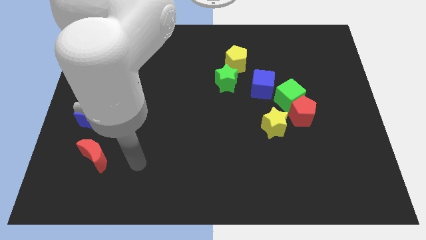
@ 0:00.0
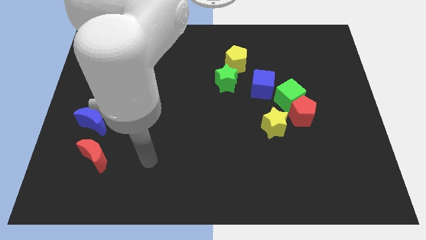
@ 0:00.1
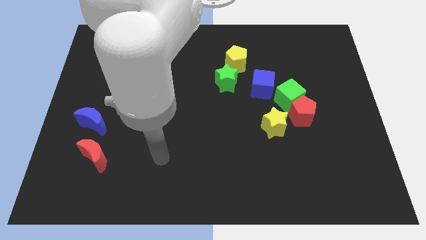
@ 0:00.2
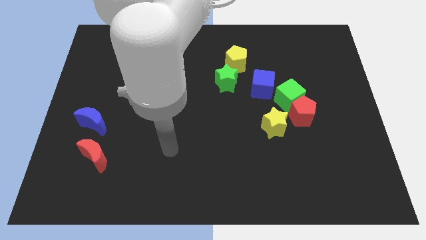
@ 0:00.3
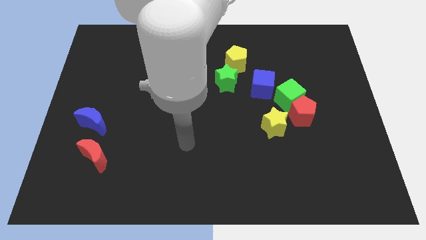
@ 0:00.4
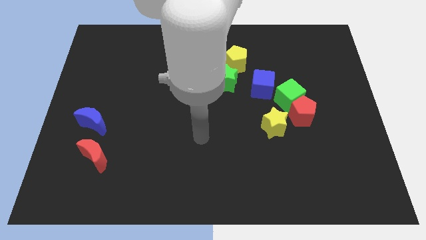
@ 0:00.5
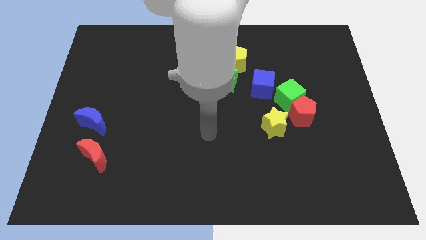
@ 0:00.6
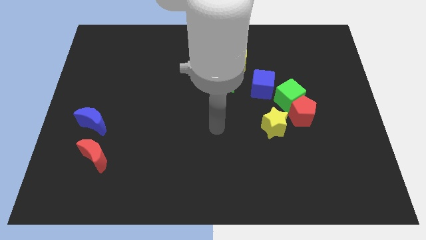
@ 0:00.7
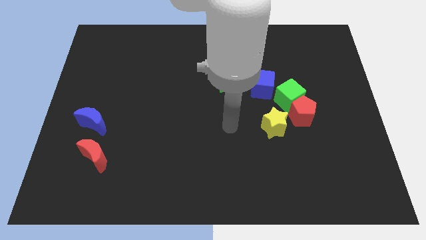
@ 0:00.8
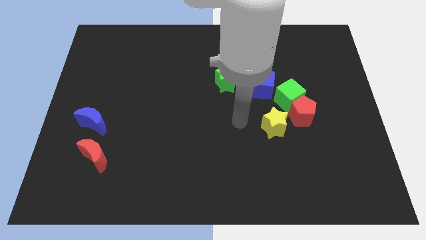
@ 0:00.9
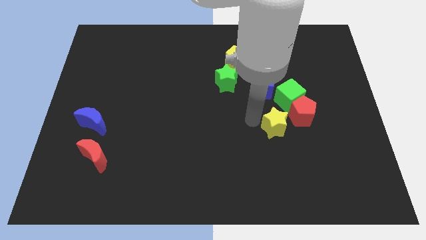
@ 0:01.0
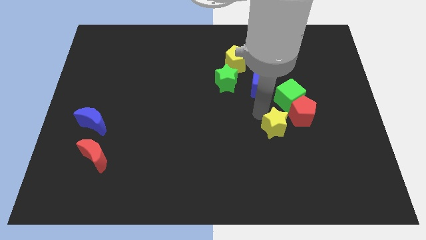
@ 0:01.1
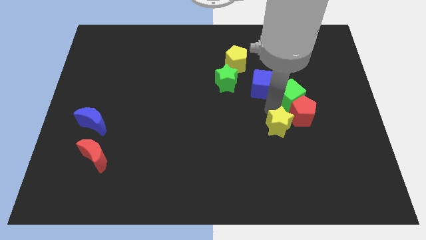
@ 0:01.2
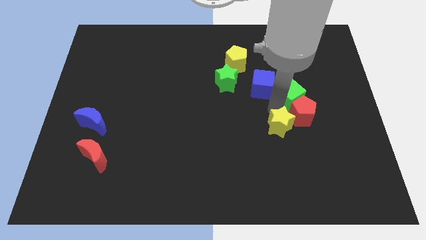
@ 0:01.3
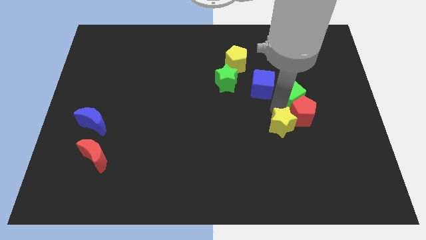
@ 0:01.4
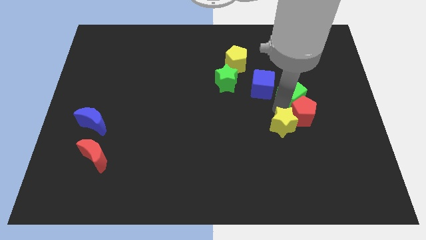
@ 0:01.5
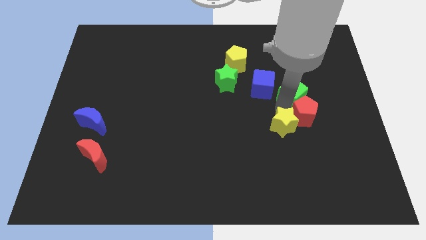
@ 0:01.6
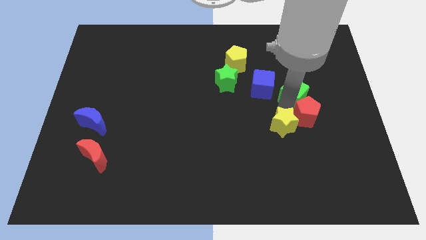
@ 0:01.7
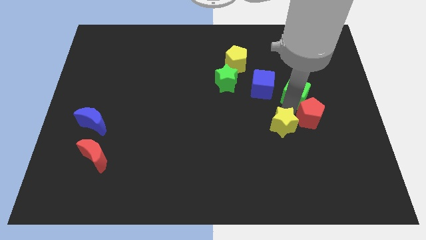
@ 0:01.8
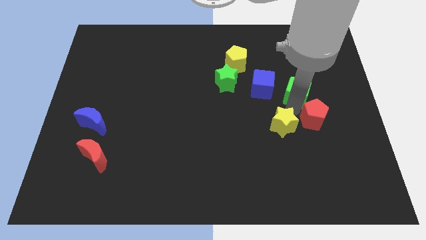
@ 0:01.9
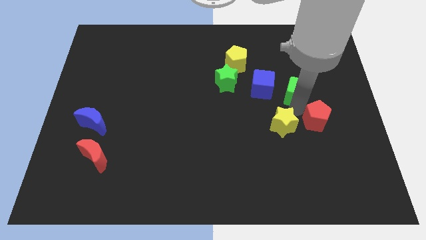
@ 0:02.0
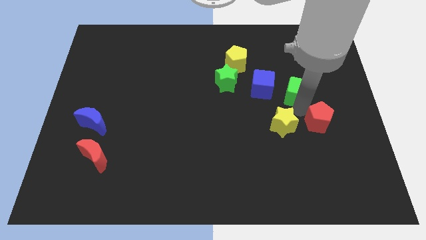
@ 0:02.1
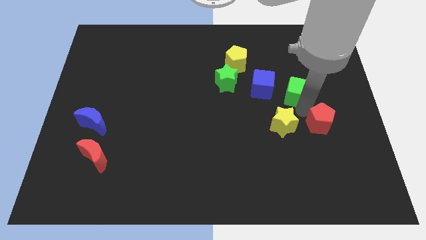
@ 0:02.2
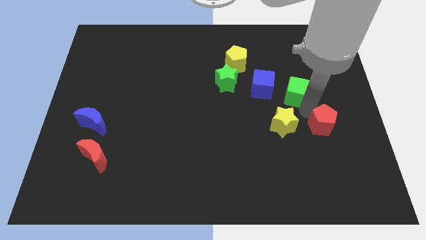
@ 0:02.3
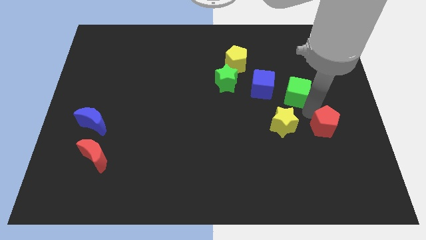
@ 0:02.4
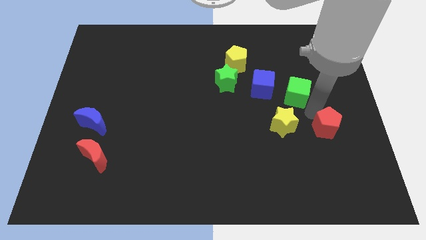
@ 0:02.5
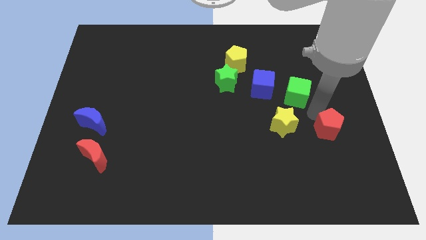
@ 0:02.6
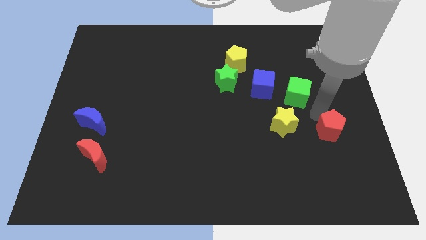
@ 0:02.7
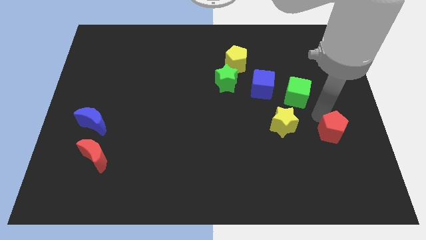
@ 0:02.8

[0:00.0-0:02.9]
separate the red pentagon from the green cube and yellow star

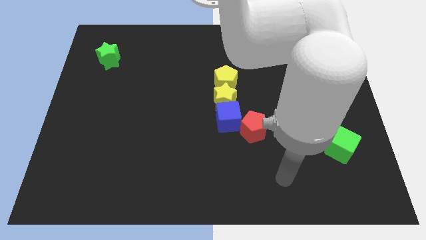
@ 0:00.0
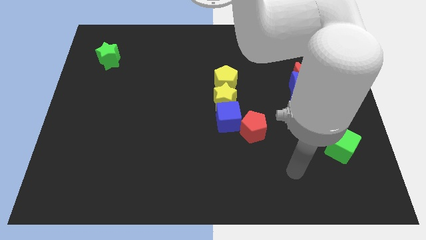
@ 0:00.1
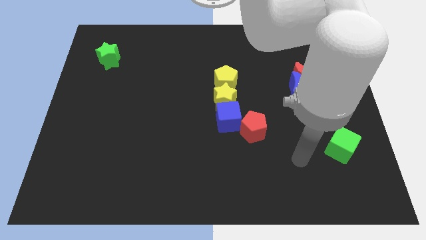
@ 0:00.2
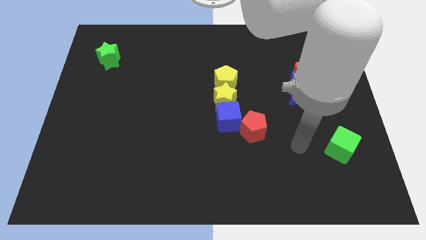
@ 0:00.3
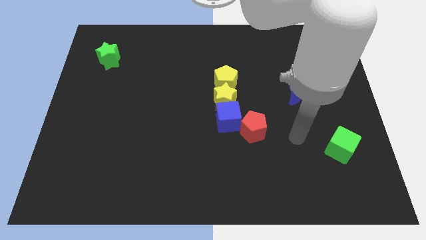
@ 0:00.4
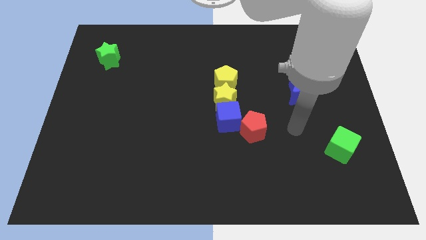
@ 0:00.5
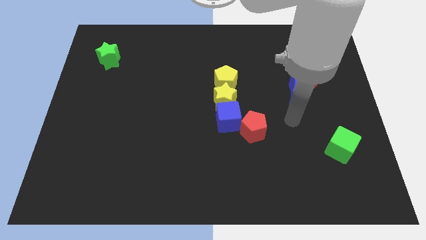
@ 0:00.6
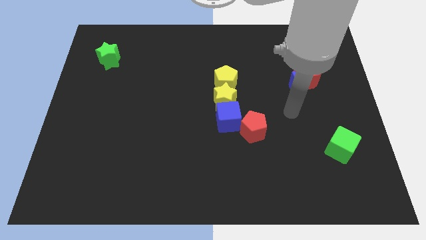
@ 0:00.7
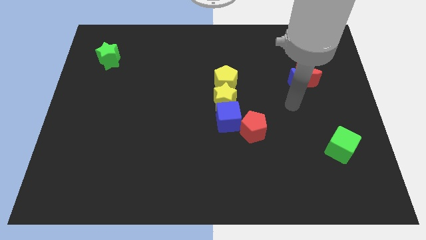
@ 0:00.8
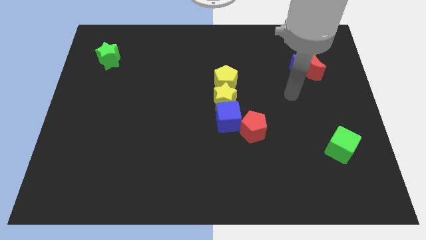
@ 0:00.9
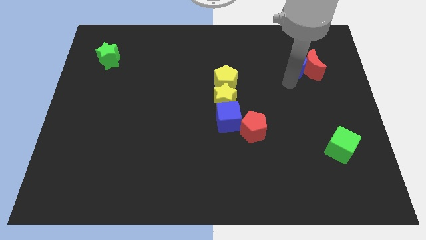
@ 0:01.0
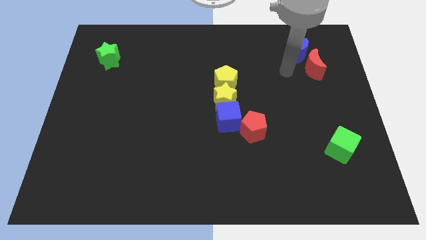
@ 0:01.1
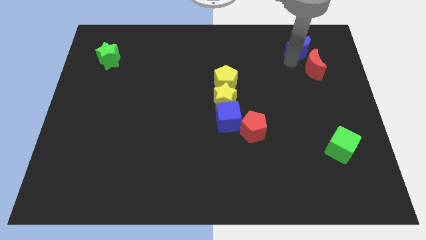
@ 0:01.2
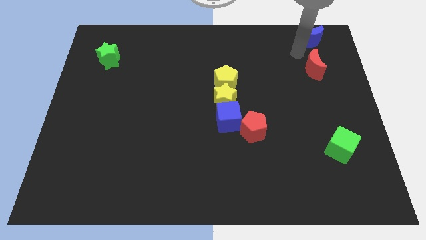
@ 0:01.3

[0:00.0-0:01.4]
move the red moon away from the blue moon

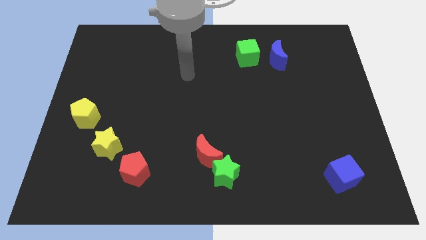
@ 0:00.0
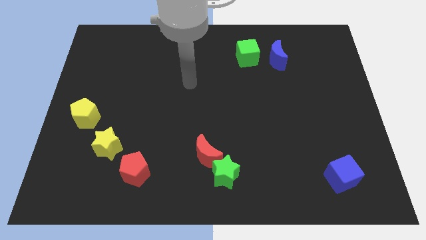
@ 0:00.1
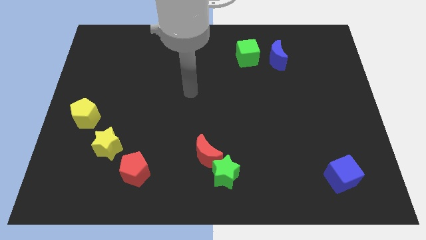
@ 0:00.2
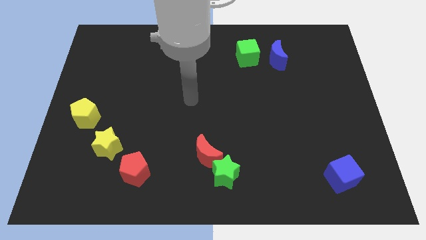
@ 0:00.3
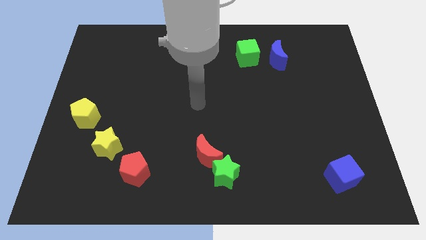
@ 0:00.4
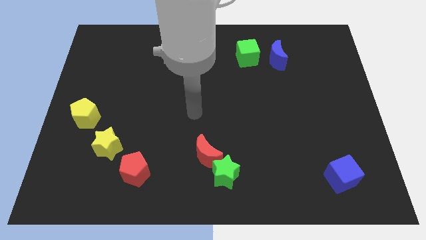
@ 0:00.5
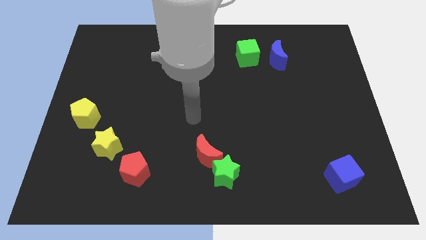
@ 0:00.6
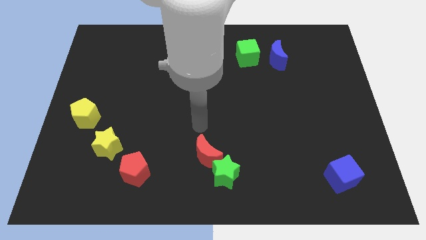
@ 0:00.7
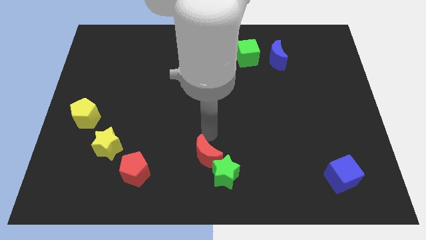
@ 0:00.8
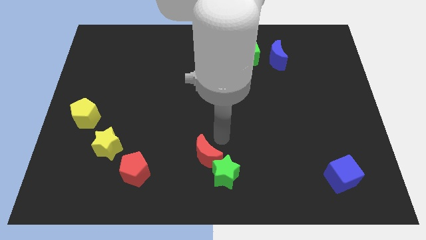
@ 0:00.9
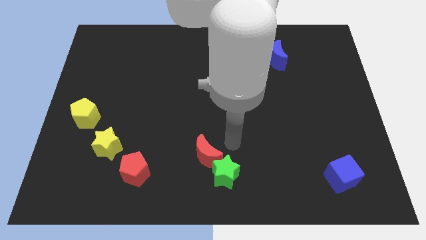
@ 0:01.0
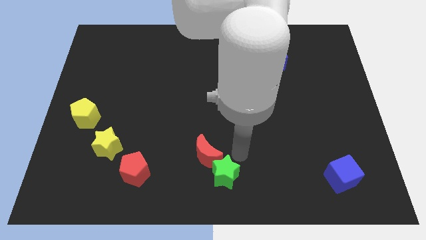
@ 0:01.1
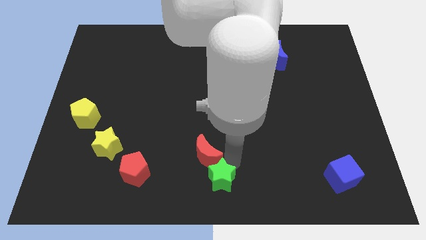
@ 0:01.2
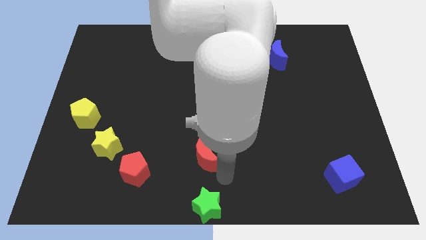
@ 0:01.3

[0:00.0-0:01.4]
separate the red moon from the green star

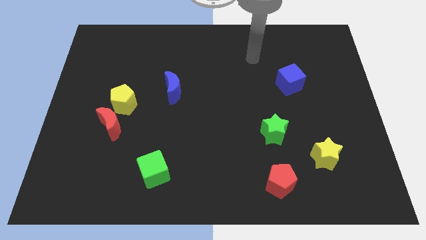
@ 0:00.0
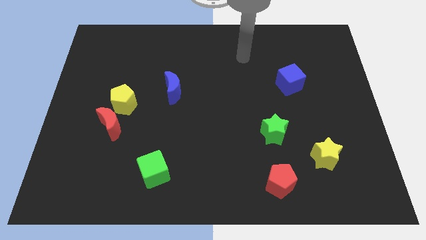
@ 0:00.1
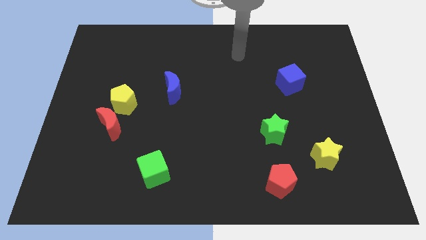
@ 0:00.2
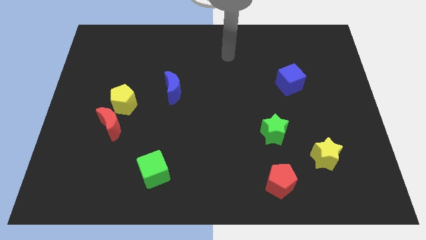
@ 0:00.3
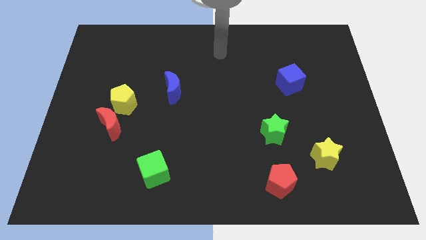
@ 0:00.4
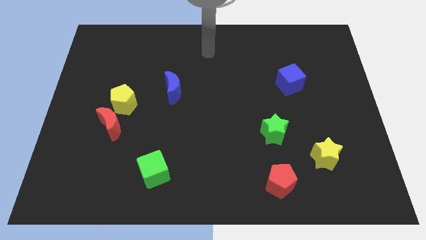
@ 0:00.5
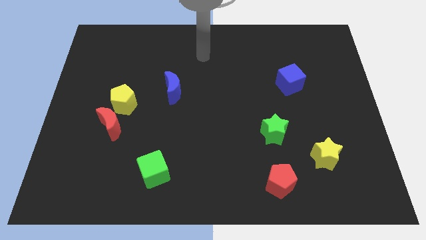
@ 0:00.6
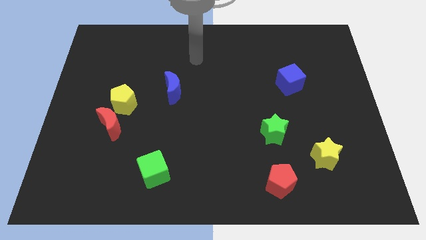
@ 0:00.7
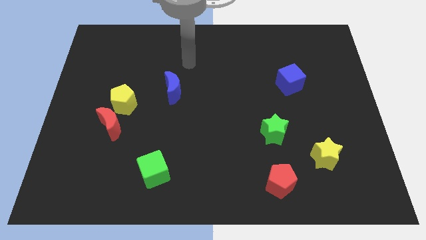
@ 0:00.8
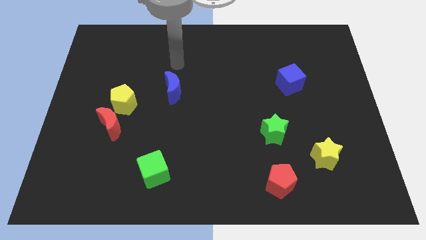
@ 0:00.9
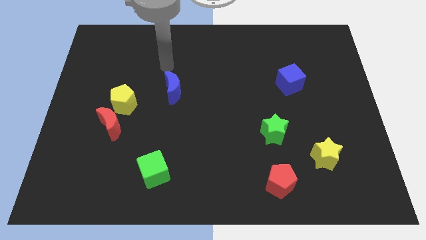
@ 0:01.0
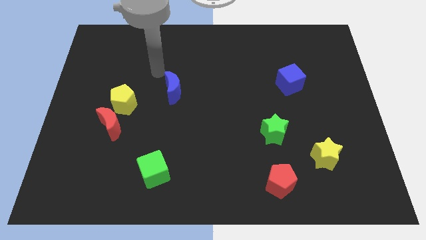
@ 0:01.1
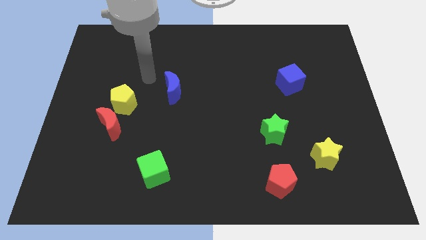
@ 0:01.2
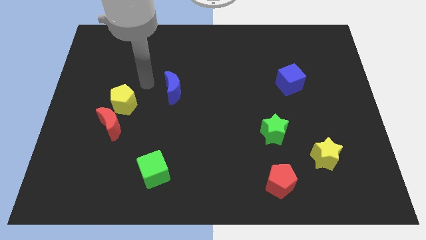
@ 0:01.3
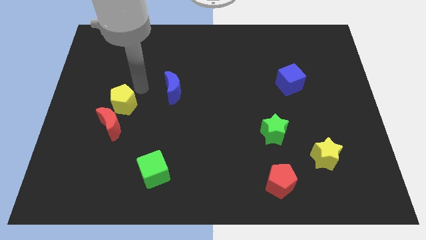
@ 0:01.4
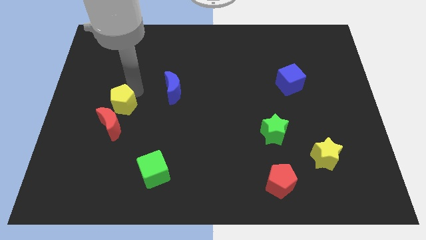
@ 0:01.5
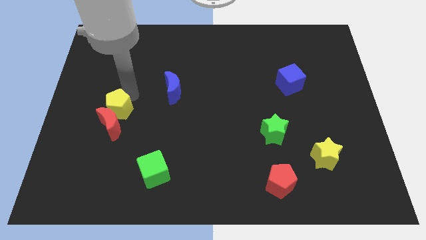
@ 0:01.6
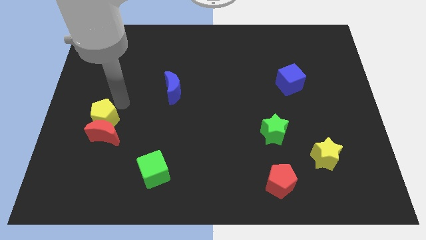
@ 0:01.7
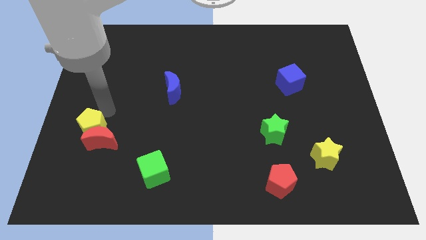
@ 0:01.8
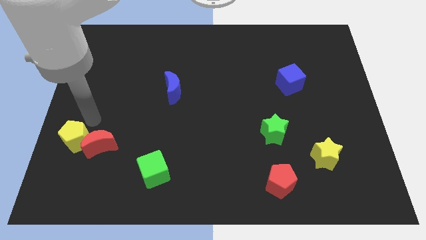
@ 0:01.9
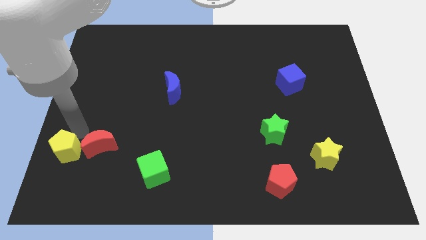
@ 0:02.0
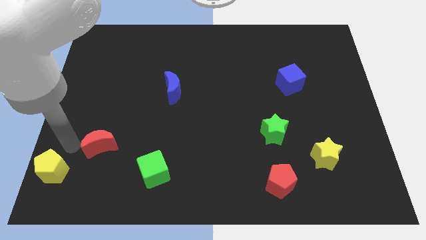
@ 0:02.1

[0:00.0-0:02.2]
pull the red moon apart from the yellow pentagon

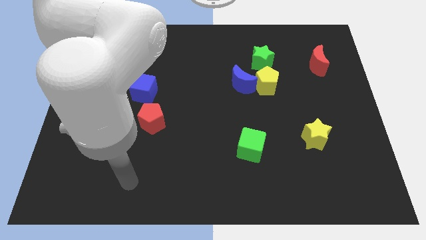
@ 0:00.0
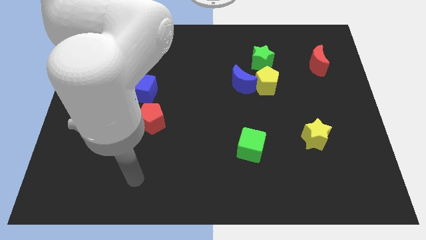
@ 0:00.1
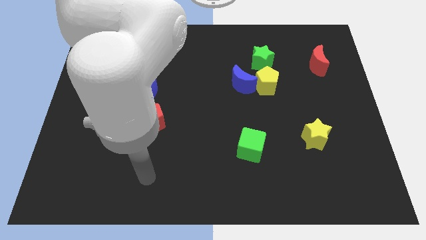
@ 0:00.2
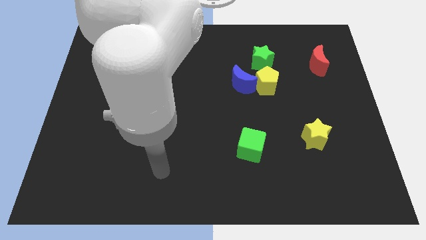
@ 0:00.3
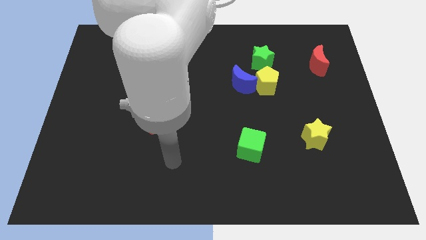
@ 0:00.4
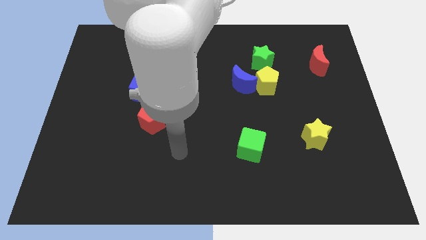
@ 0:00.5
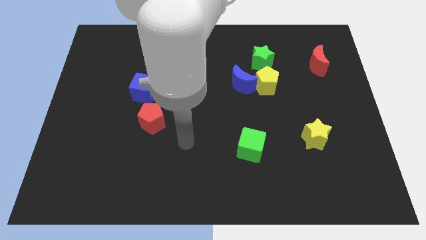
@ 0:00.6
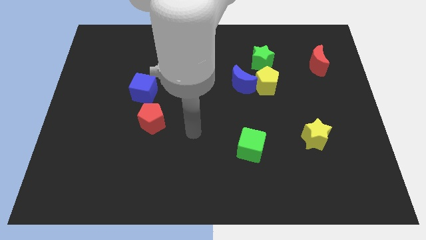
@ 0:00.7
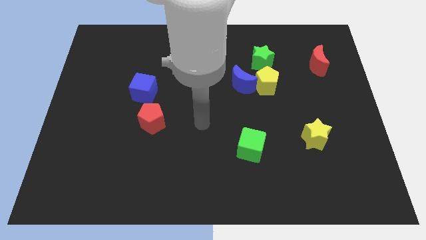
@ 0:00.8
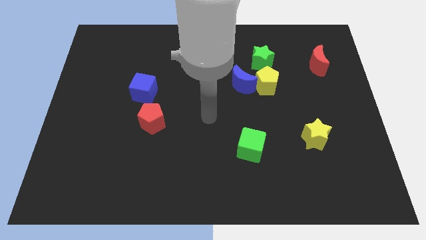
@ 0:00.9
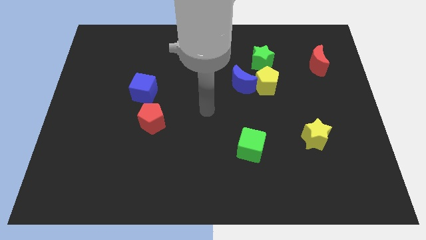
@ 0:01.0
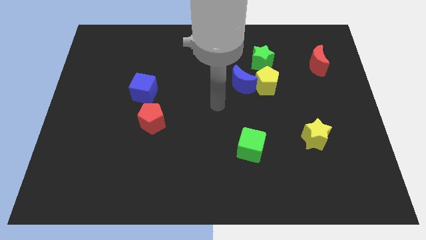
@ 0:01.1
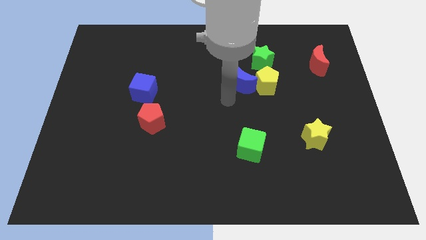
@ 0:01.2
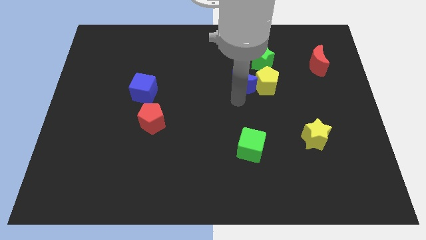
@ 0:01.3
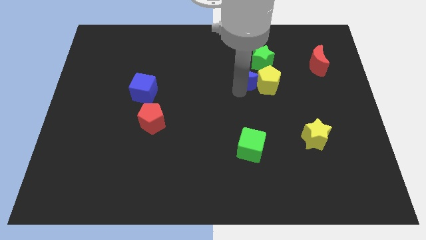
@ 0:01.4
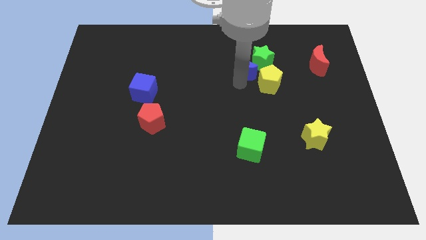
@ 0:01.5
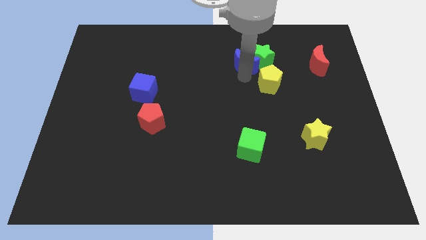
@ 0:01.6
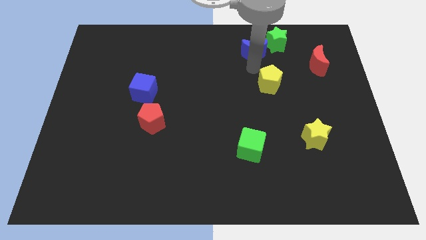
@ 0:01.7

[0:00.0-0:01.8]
move the yellow pentagon away from the blue moon and green star
